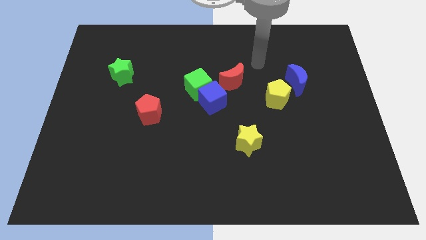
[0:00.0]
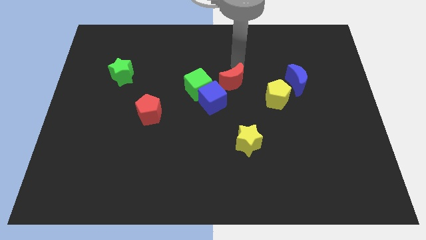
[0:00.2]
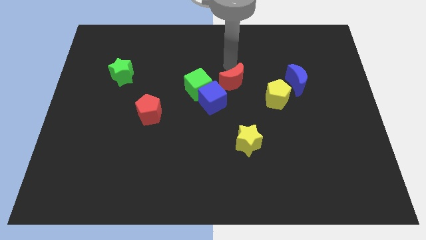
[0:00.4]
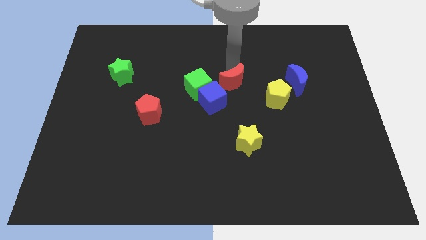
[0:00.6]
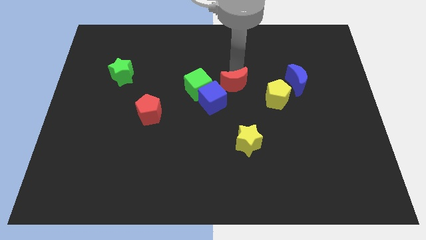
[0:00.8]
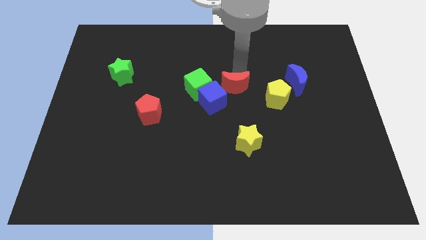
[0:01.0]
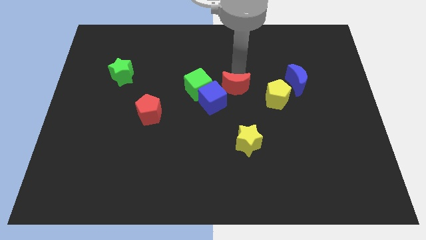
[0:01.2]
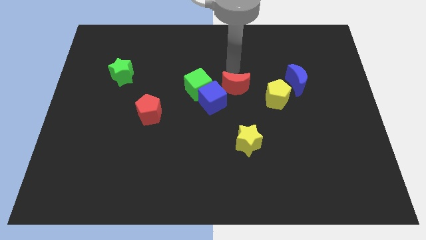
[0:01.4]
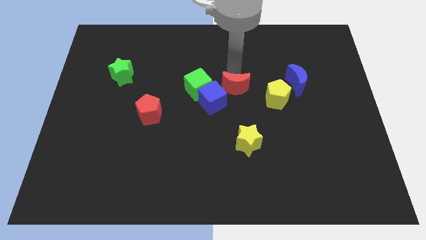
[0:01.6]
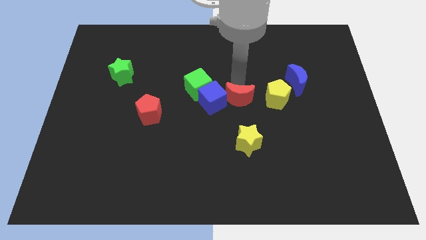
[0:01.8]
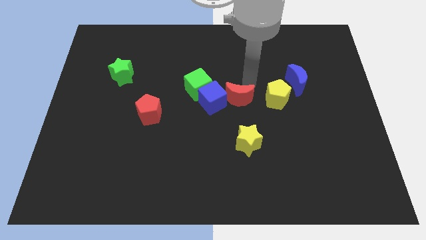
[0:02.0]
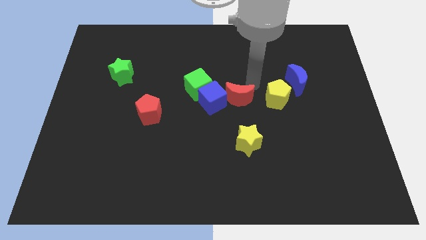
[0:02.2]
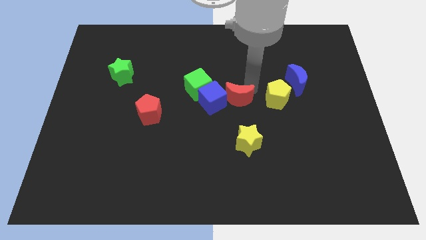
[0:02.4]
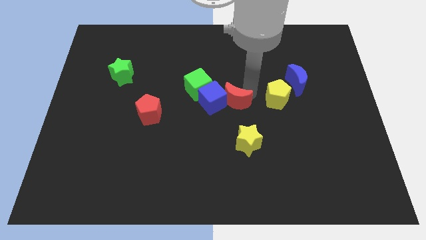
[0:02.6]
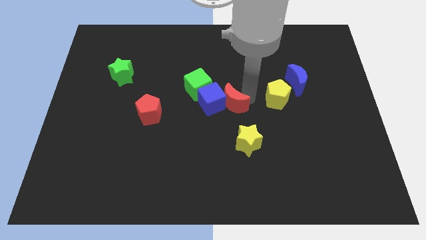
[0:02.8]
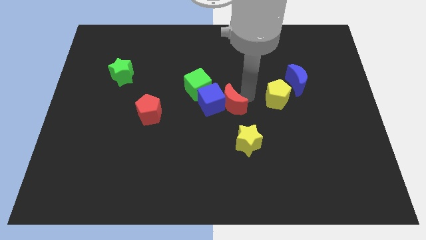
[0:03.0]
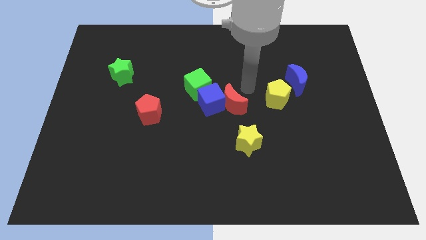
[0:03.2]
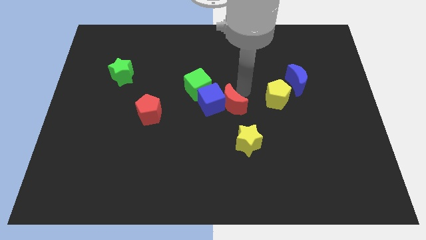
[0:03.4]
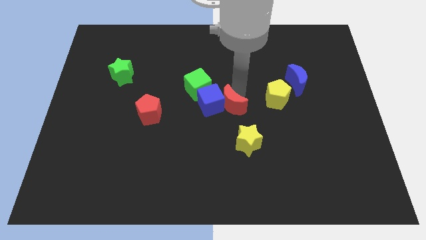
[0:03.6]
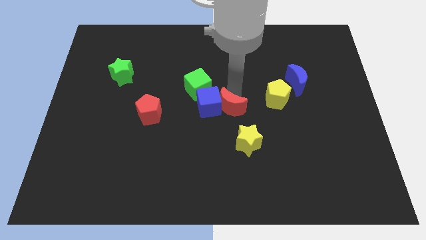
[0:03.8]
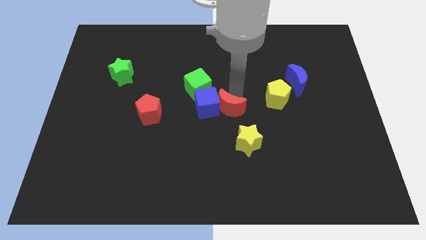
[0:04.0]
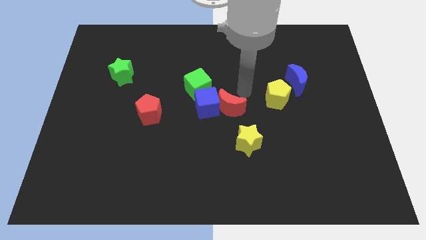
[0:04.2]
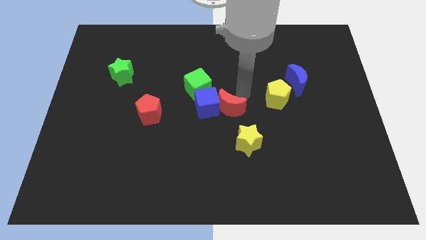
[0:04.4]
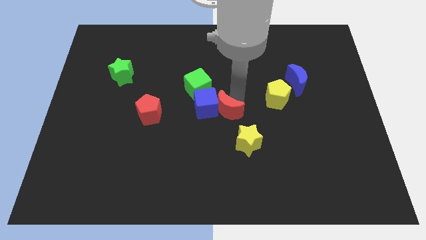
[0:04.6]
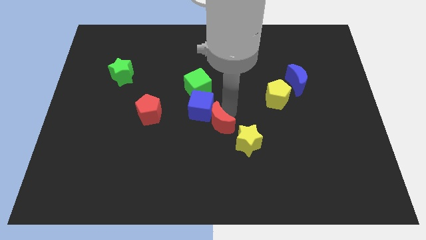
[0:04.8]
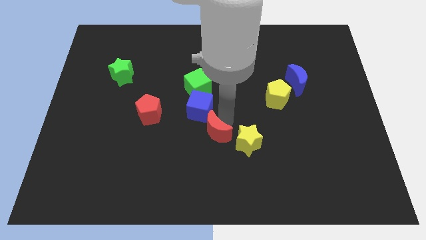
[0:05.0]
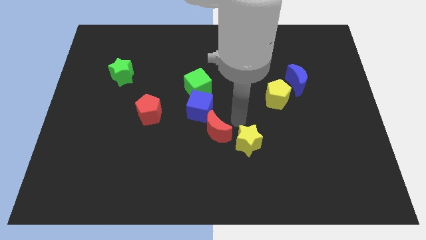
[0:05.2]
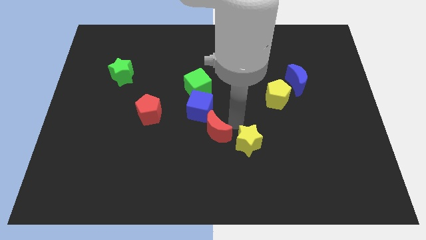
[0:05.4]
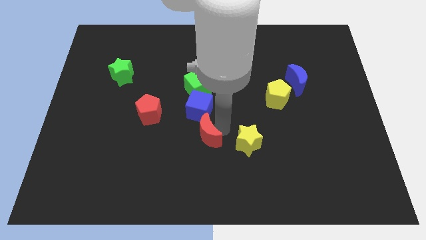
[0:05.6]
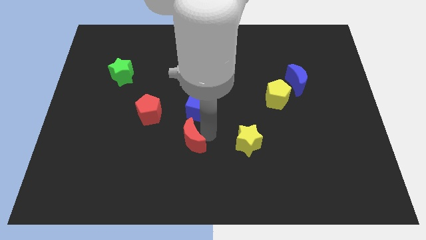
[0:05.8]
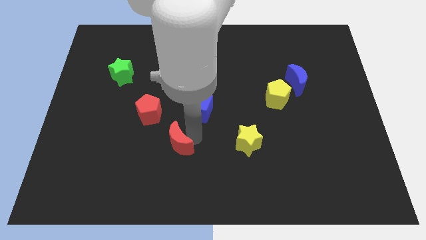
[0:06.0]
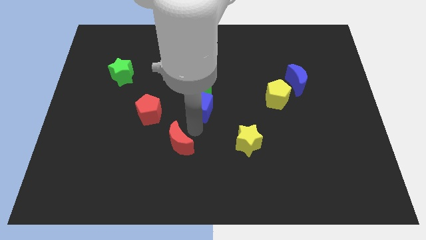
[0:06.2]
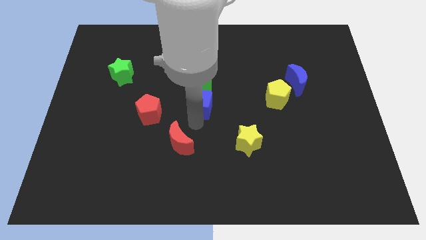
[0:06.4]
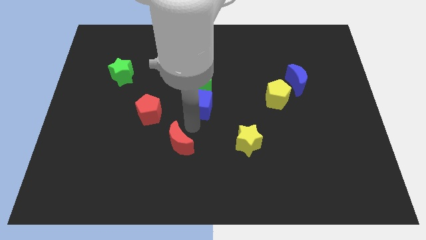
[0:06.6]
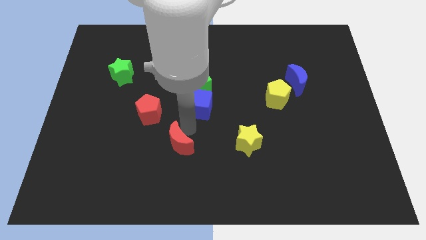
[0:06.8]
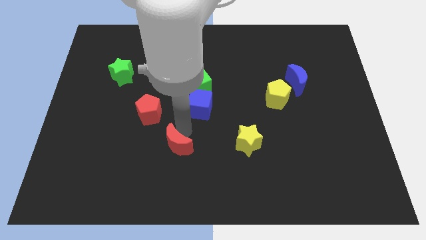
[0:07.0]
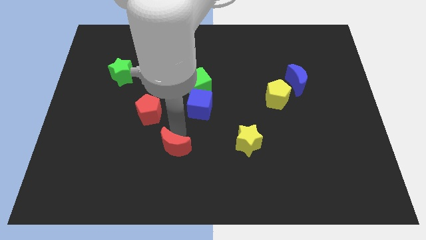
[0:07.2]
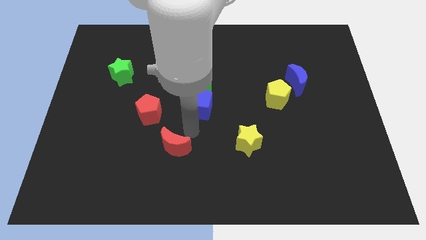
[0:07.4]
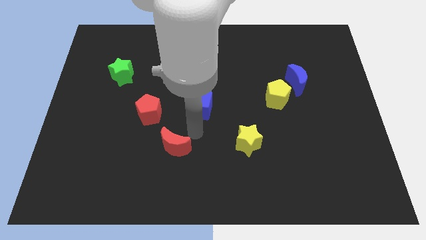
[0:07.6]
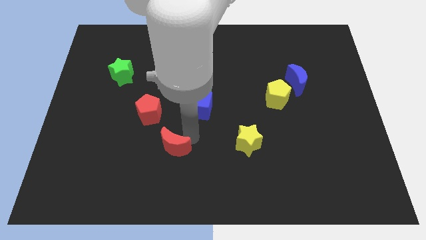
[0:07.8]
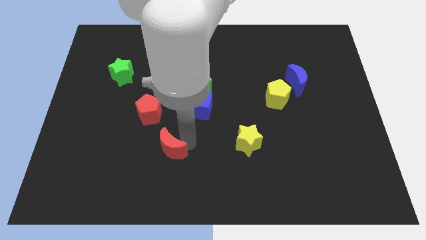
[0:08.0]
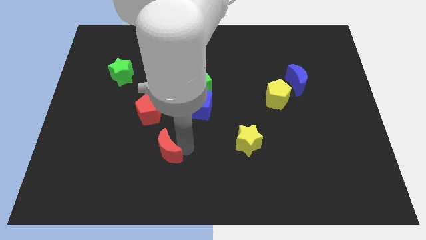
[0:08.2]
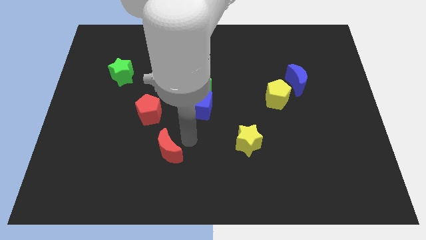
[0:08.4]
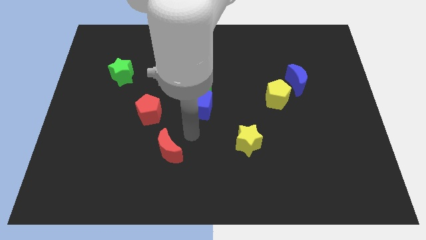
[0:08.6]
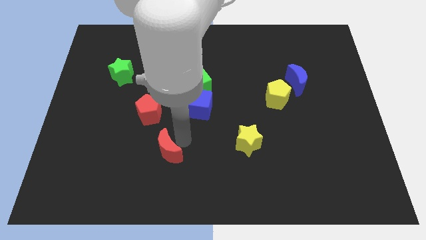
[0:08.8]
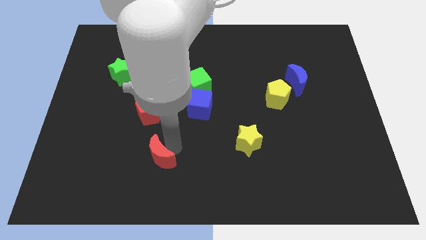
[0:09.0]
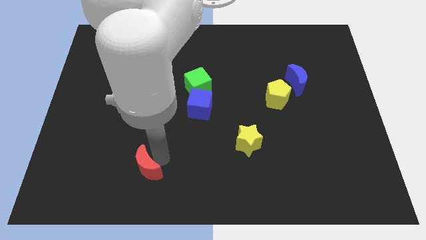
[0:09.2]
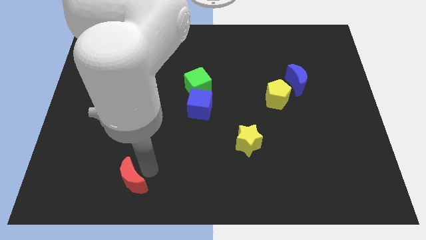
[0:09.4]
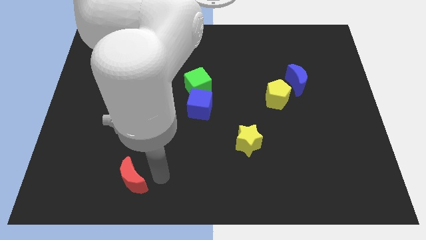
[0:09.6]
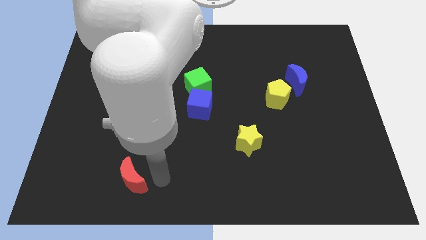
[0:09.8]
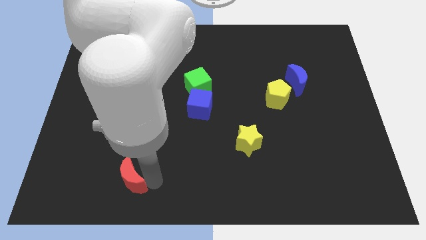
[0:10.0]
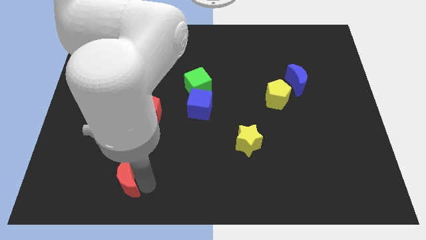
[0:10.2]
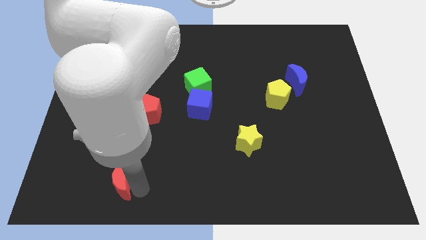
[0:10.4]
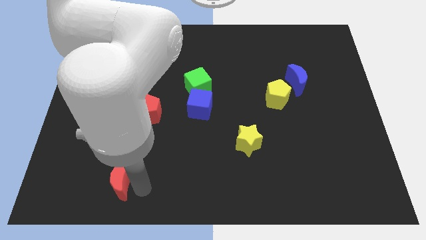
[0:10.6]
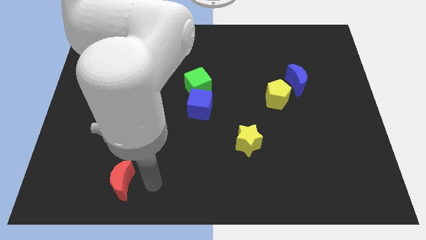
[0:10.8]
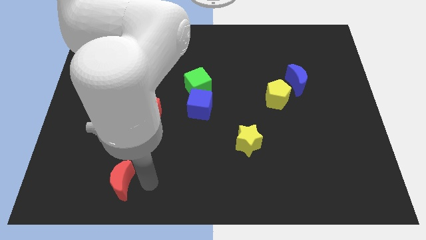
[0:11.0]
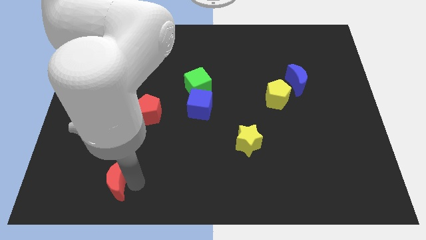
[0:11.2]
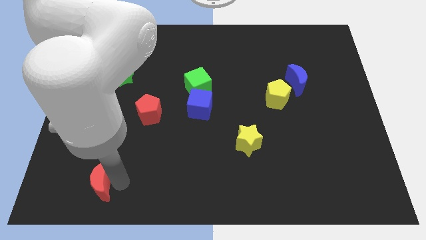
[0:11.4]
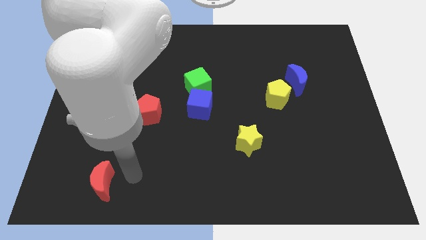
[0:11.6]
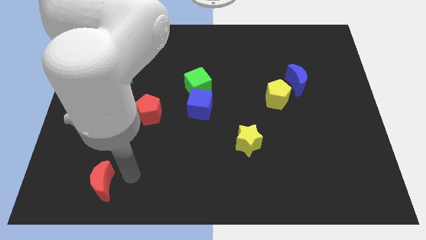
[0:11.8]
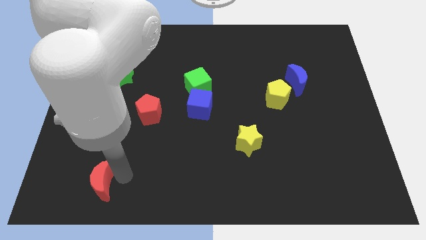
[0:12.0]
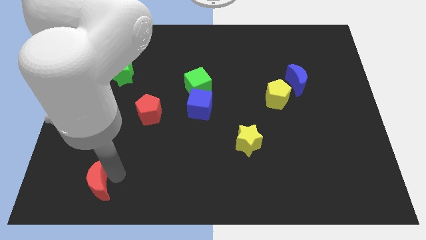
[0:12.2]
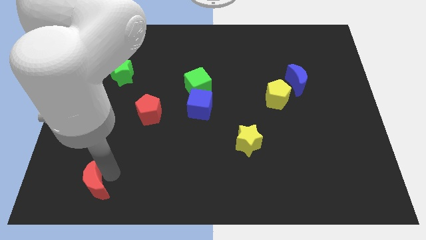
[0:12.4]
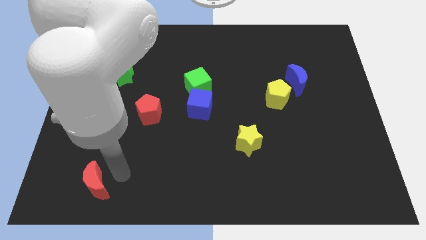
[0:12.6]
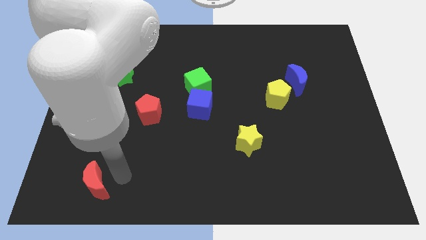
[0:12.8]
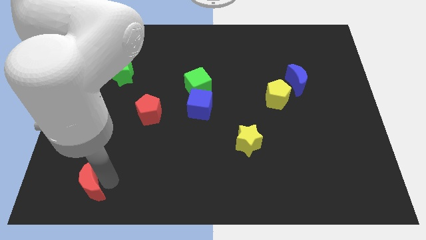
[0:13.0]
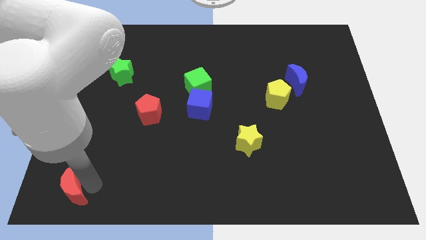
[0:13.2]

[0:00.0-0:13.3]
move the red moon to the bottom left corner
